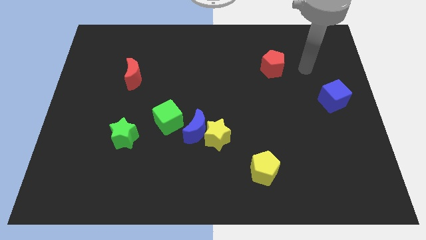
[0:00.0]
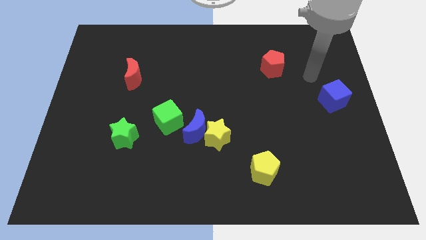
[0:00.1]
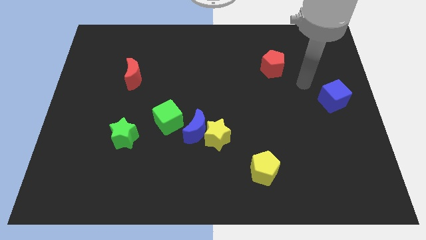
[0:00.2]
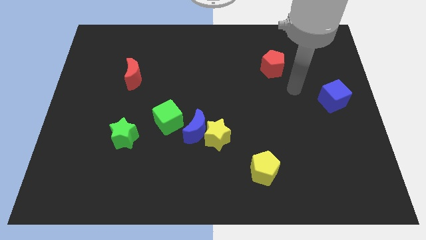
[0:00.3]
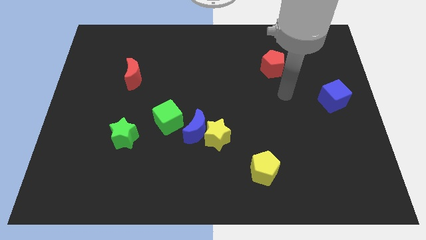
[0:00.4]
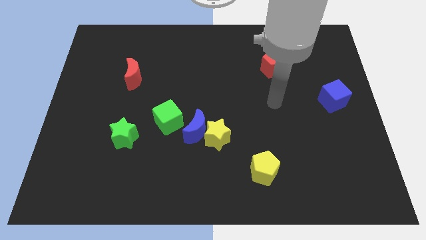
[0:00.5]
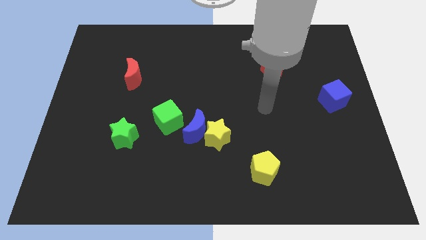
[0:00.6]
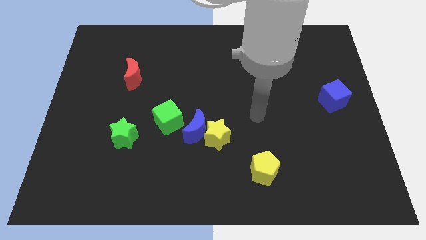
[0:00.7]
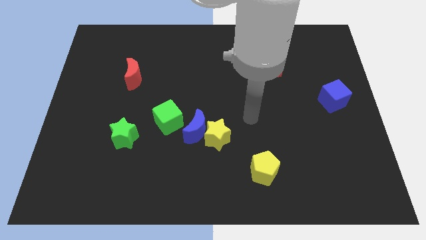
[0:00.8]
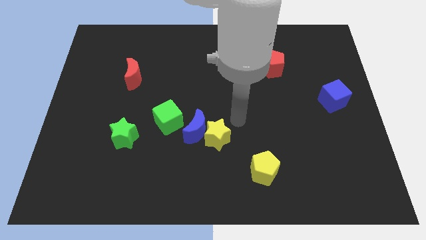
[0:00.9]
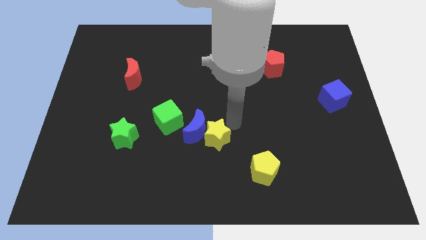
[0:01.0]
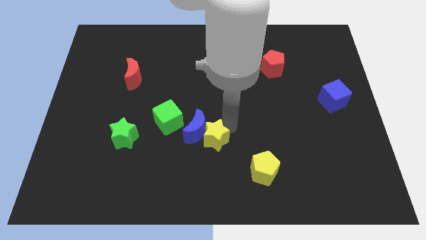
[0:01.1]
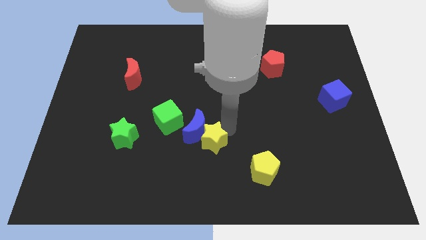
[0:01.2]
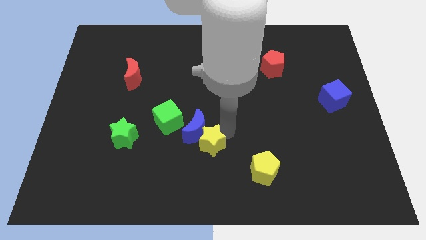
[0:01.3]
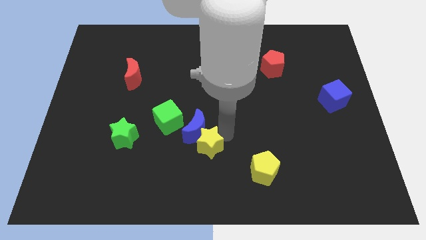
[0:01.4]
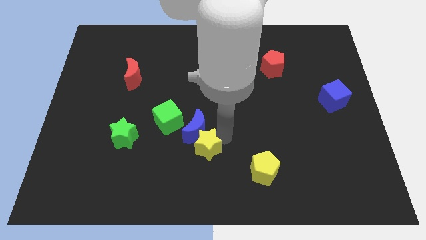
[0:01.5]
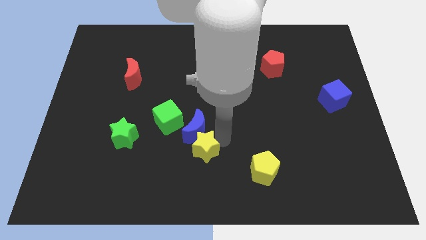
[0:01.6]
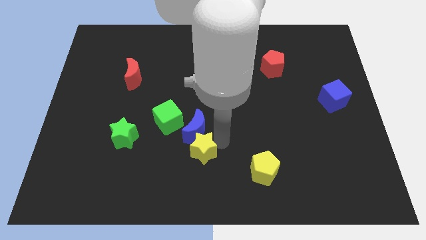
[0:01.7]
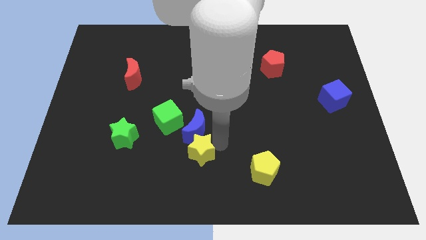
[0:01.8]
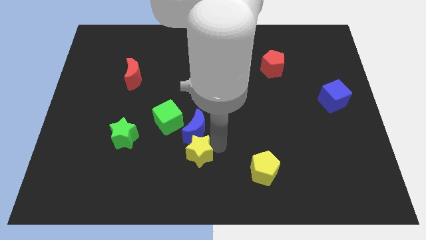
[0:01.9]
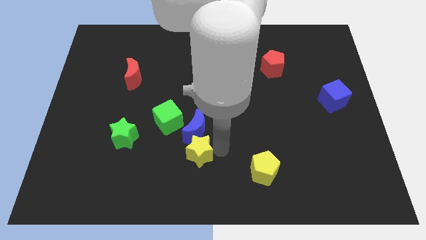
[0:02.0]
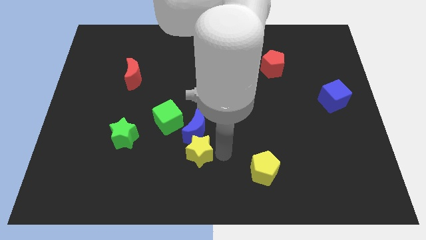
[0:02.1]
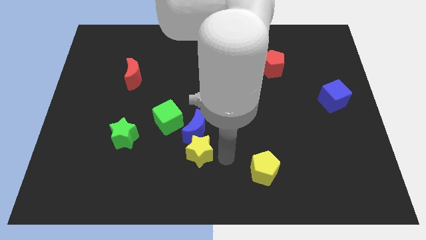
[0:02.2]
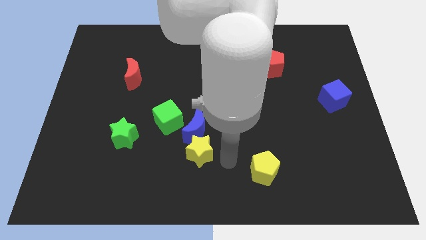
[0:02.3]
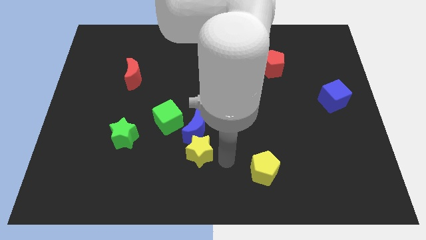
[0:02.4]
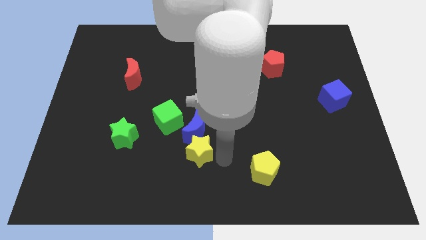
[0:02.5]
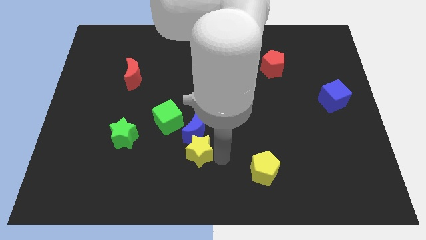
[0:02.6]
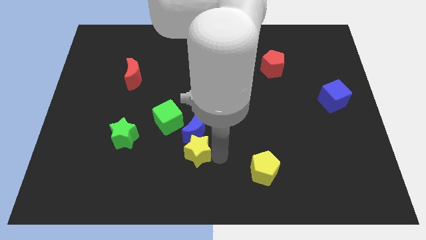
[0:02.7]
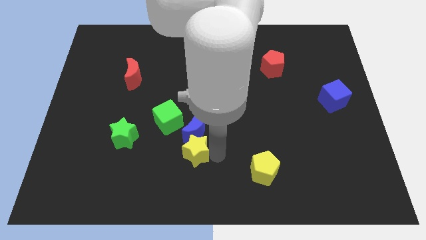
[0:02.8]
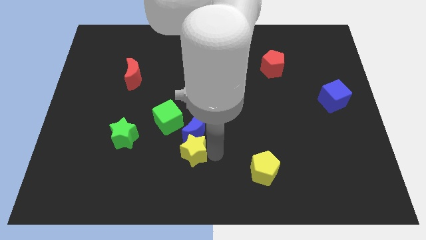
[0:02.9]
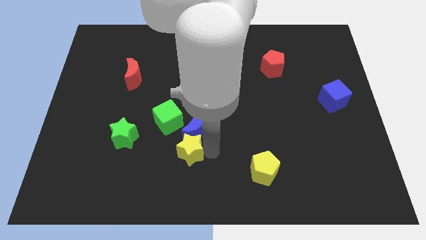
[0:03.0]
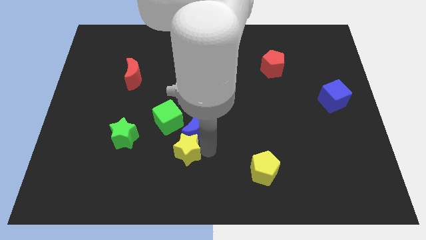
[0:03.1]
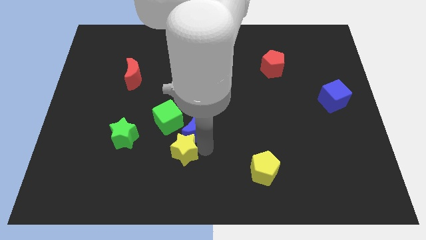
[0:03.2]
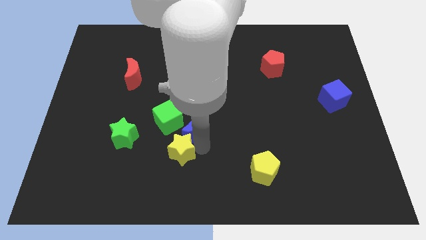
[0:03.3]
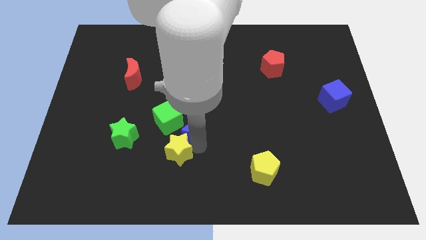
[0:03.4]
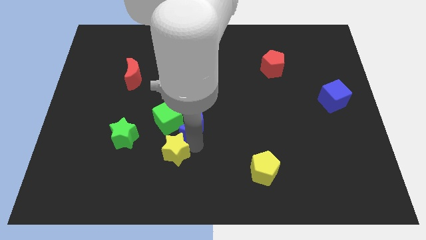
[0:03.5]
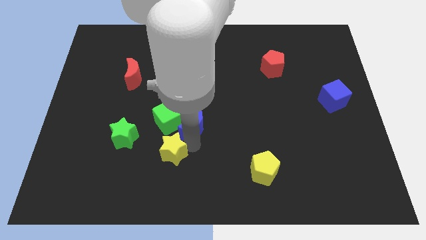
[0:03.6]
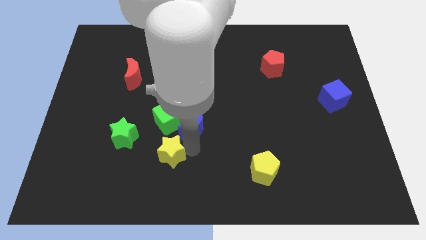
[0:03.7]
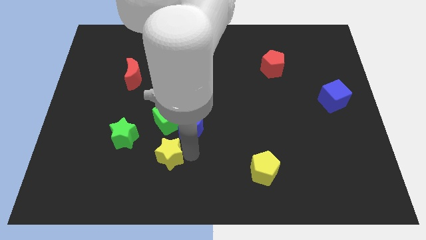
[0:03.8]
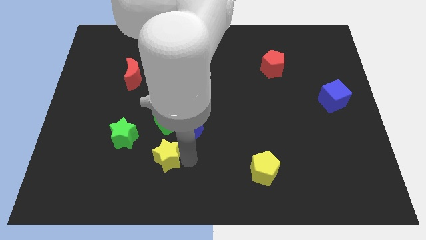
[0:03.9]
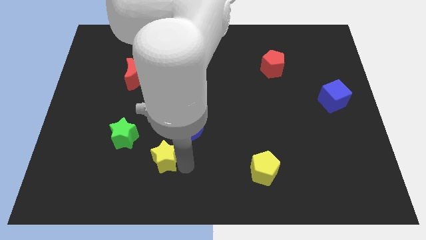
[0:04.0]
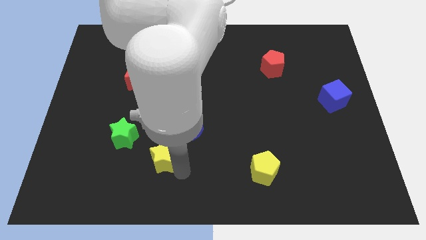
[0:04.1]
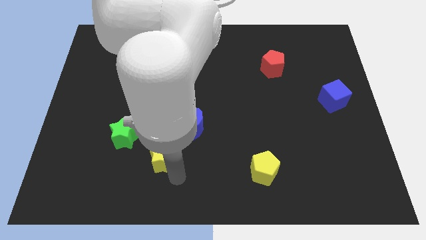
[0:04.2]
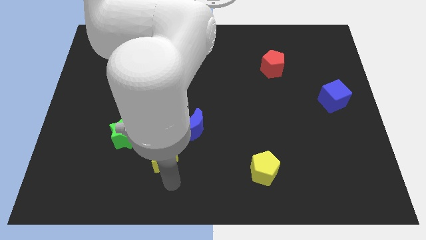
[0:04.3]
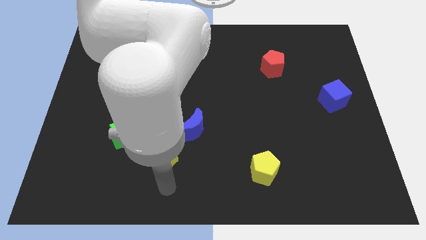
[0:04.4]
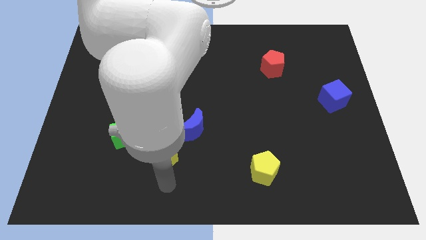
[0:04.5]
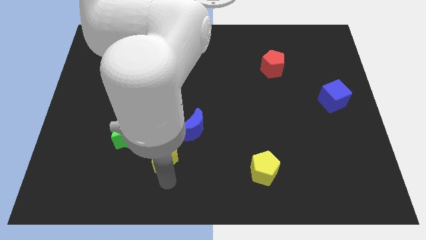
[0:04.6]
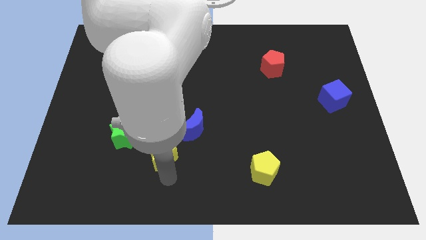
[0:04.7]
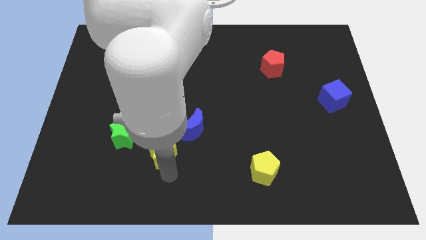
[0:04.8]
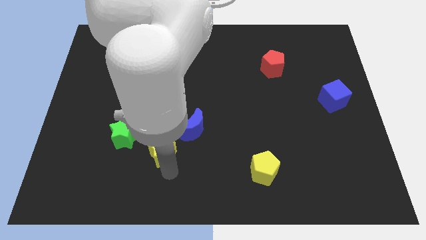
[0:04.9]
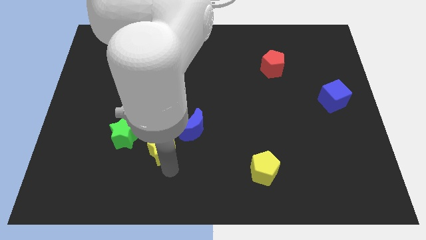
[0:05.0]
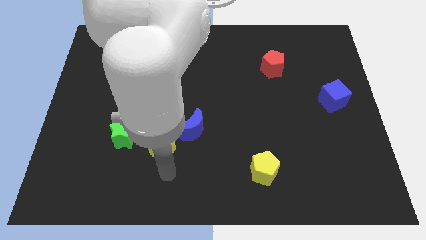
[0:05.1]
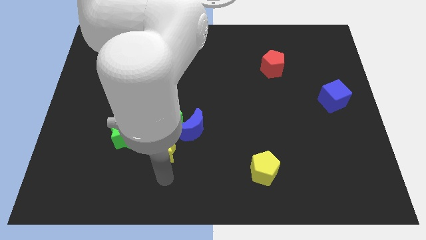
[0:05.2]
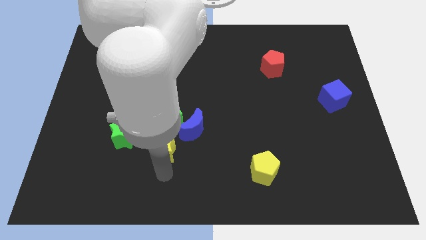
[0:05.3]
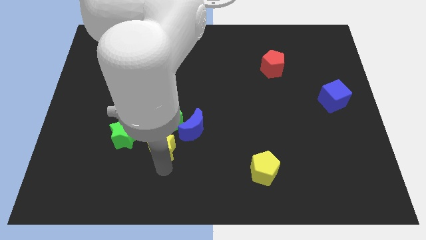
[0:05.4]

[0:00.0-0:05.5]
move the yellow star to the bottom left side of the green cube

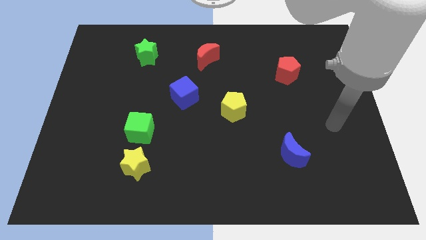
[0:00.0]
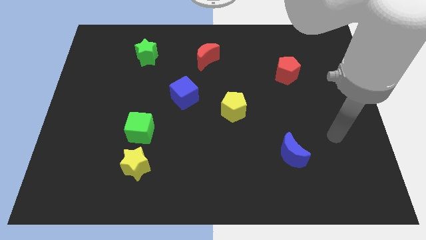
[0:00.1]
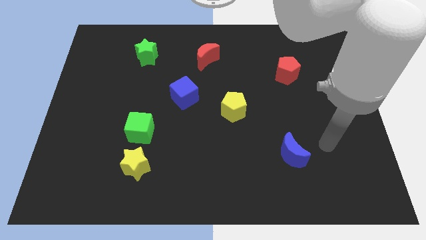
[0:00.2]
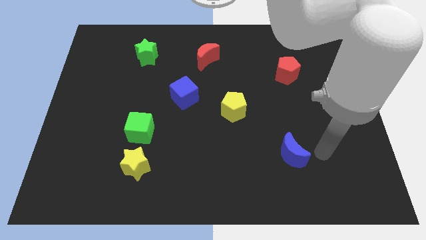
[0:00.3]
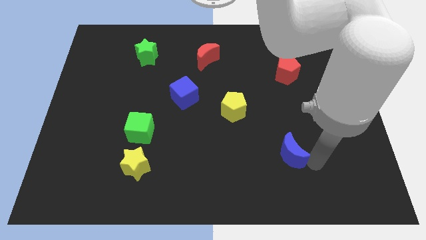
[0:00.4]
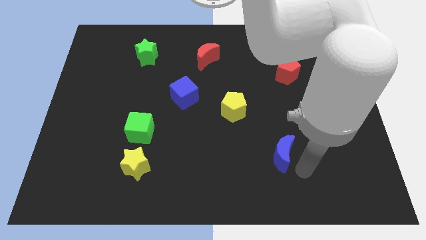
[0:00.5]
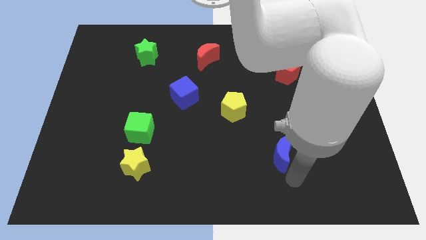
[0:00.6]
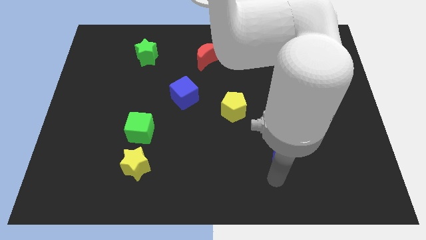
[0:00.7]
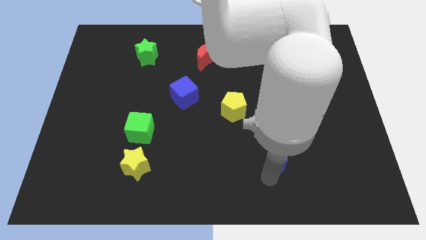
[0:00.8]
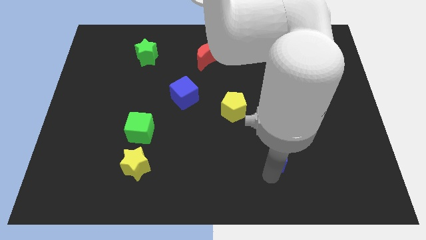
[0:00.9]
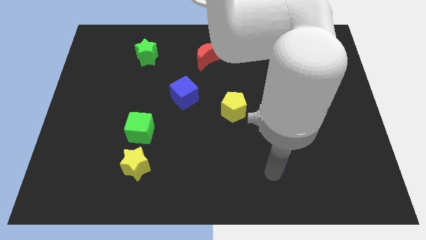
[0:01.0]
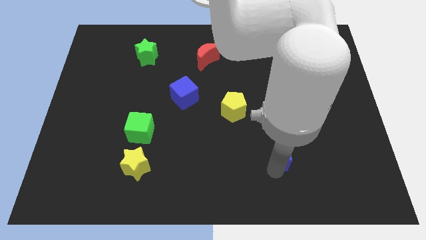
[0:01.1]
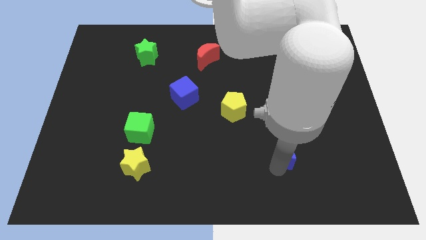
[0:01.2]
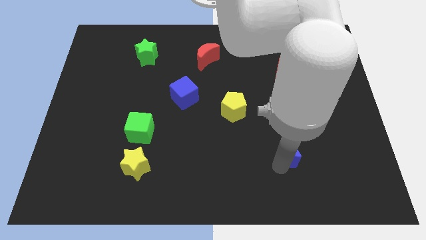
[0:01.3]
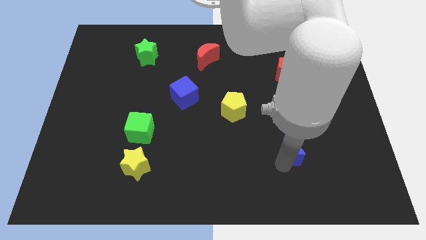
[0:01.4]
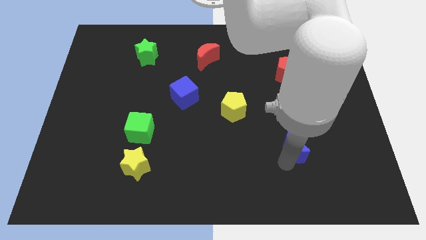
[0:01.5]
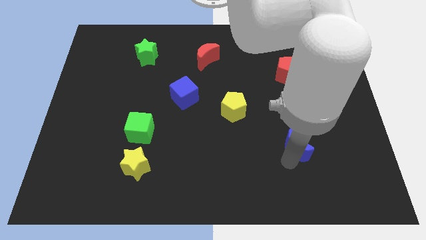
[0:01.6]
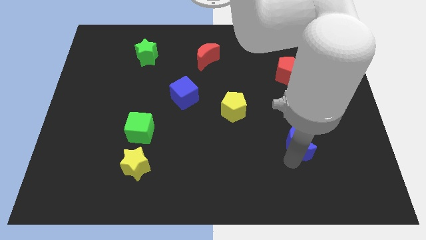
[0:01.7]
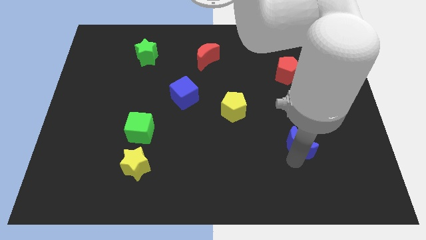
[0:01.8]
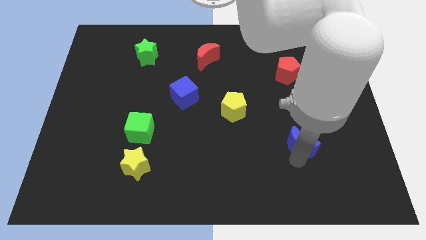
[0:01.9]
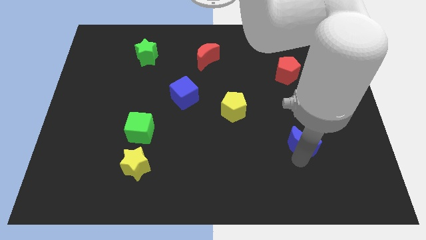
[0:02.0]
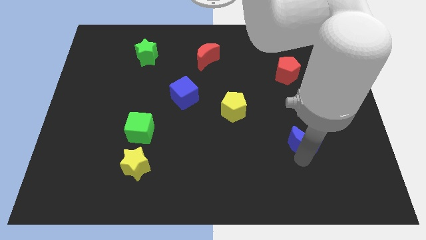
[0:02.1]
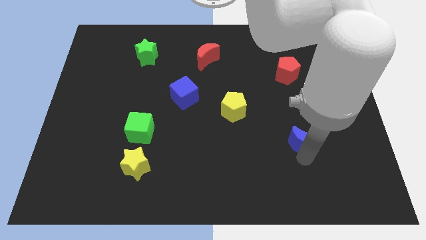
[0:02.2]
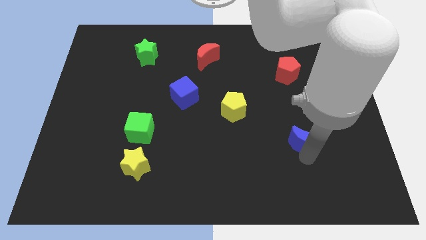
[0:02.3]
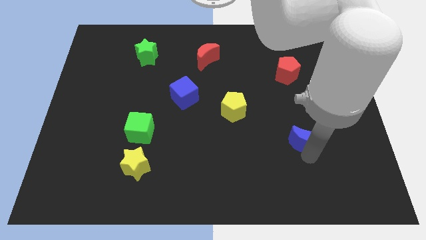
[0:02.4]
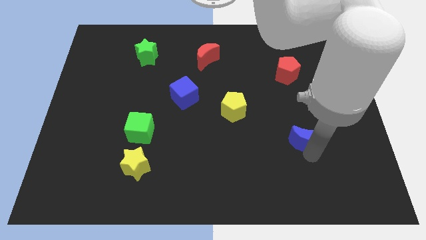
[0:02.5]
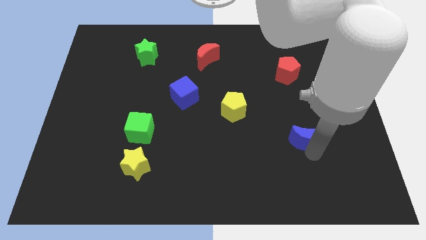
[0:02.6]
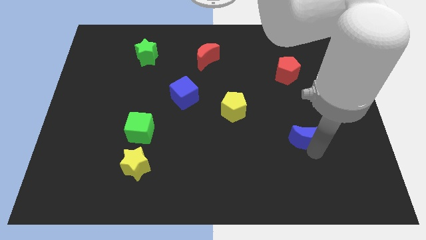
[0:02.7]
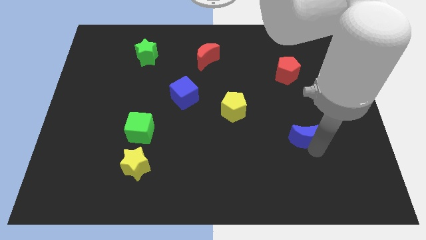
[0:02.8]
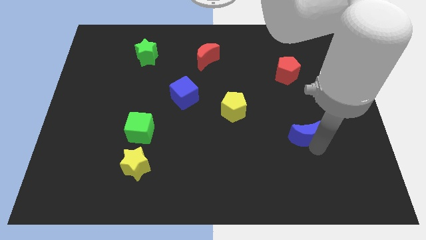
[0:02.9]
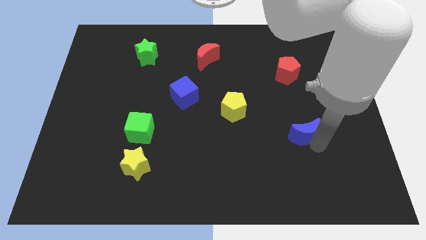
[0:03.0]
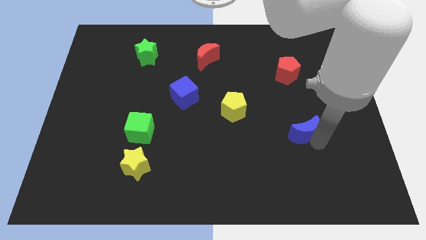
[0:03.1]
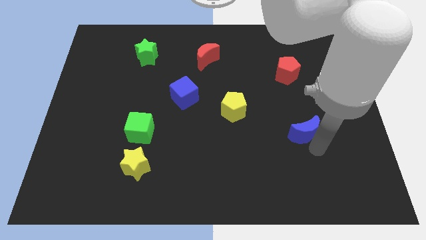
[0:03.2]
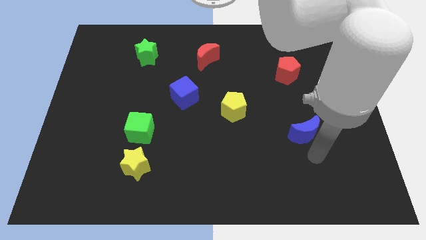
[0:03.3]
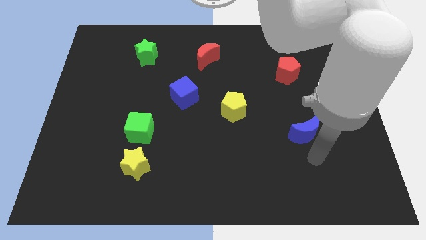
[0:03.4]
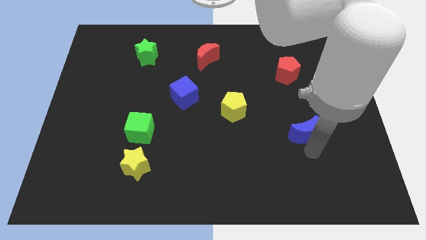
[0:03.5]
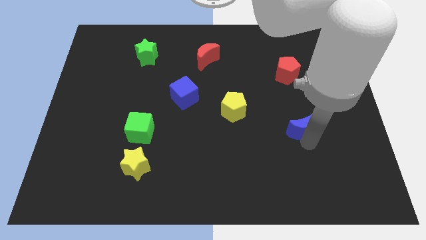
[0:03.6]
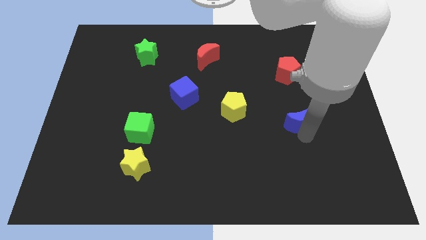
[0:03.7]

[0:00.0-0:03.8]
move the blue moon to the bottom of the red pentagon
